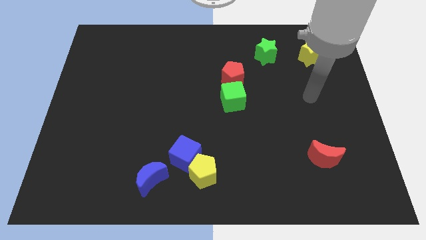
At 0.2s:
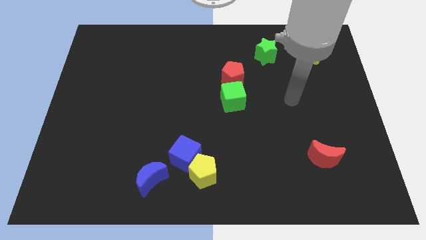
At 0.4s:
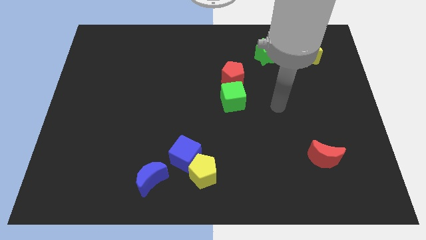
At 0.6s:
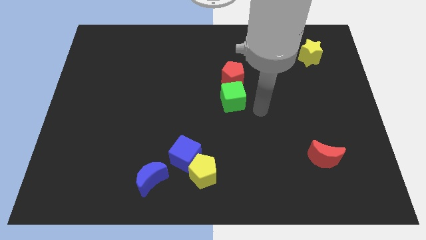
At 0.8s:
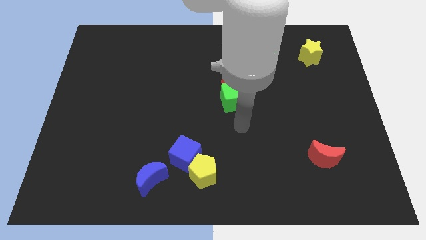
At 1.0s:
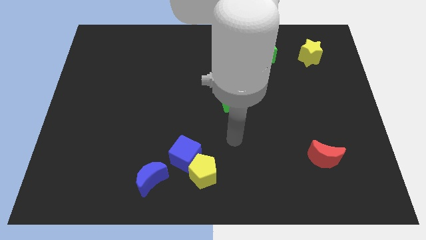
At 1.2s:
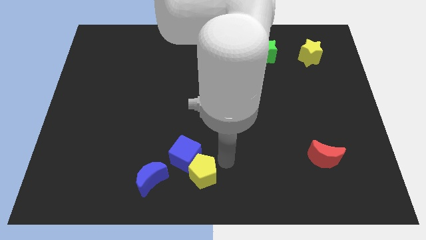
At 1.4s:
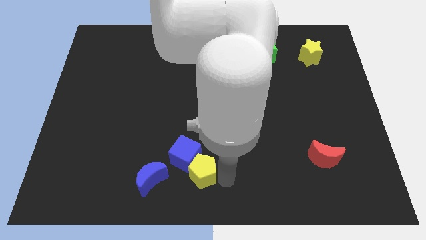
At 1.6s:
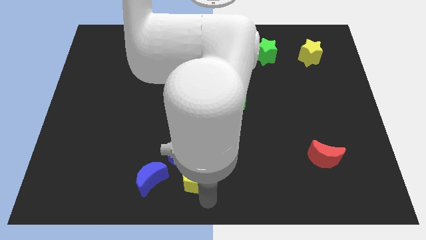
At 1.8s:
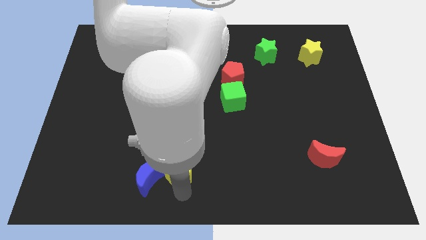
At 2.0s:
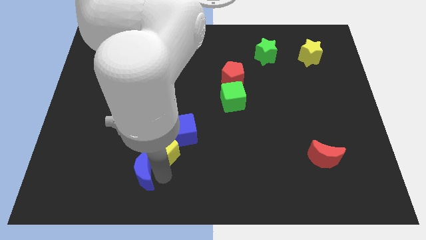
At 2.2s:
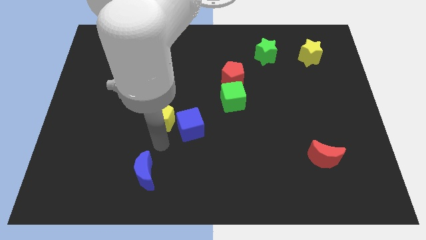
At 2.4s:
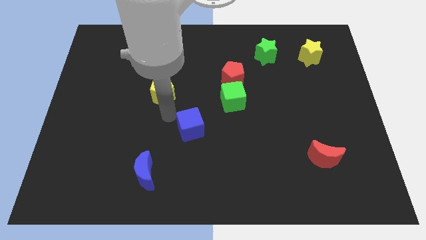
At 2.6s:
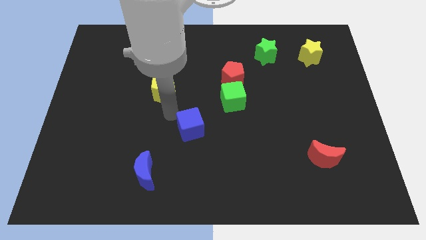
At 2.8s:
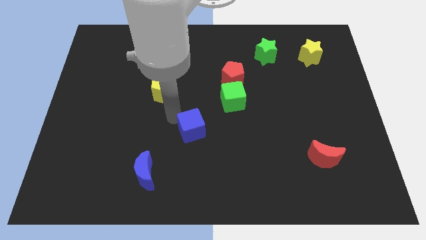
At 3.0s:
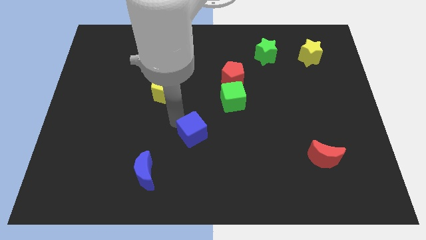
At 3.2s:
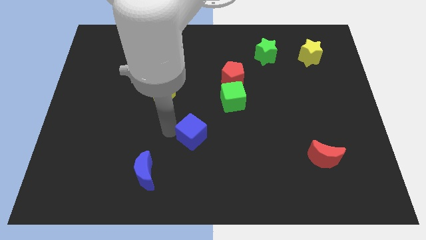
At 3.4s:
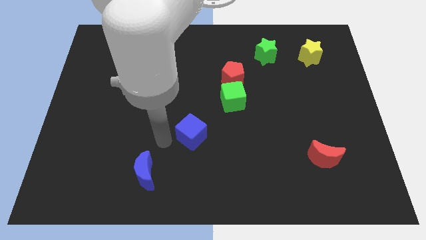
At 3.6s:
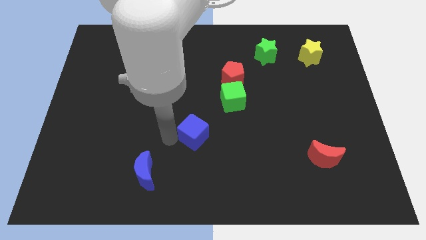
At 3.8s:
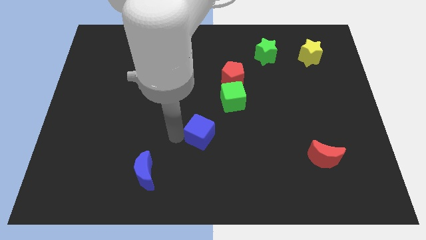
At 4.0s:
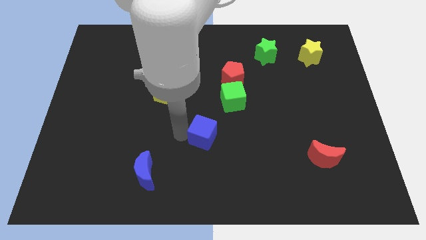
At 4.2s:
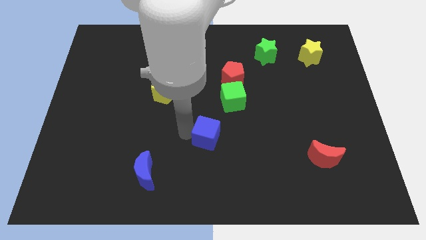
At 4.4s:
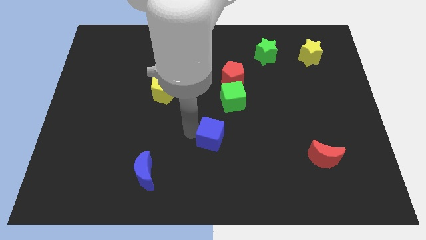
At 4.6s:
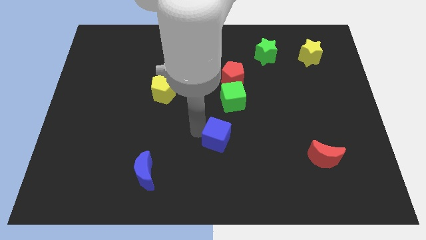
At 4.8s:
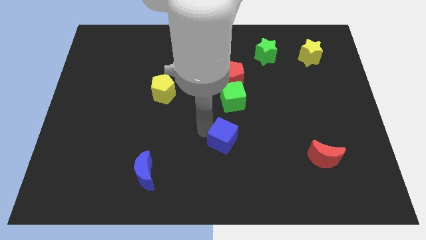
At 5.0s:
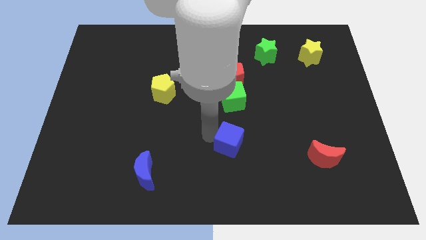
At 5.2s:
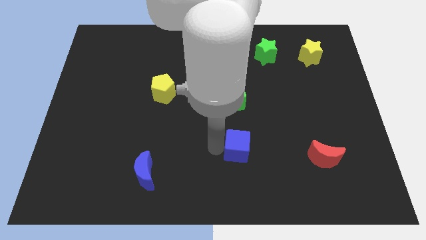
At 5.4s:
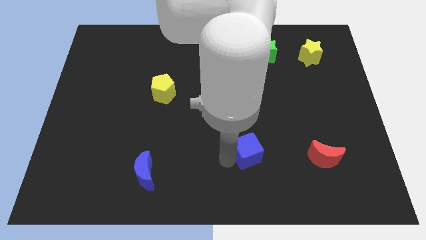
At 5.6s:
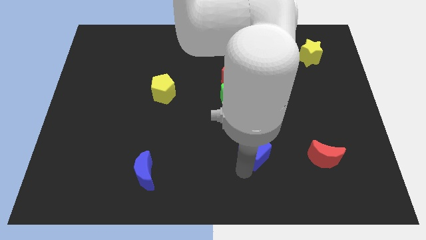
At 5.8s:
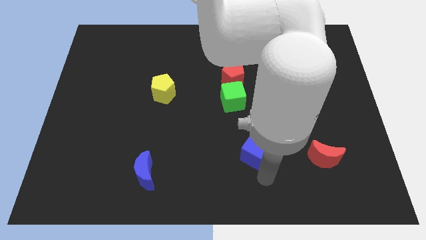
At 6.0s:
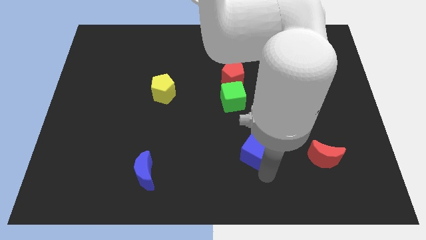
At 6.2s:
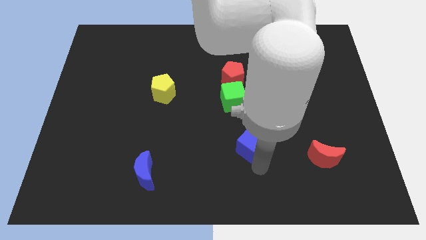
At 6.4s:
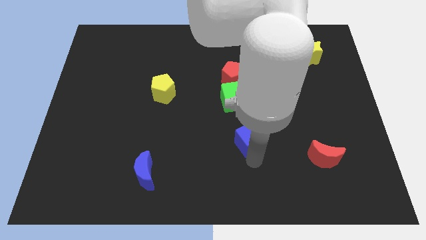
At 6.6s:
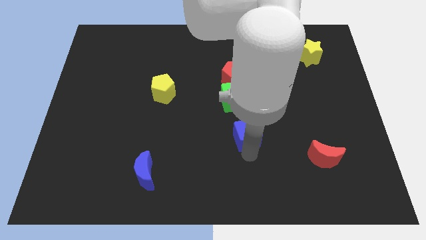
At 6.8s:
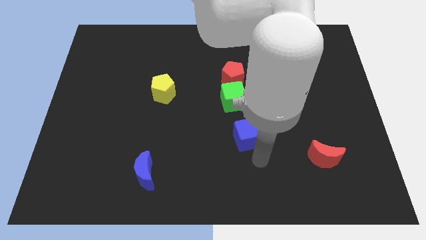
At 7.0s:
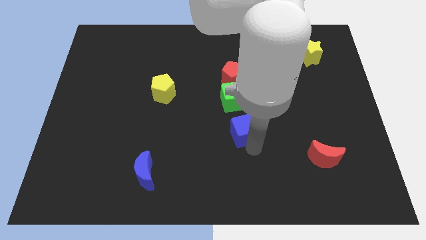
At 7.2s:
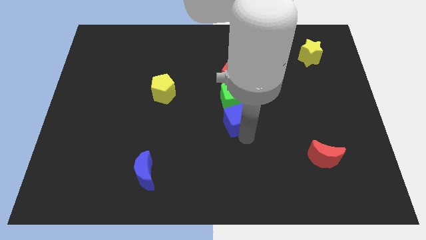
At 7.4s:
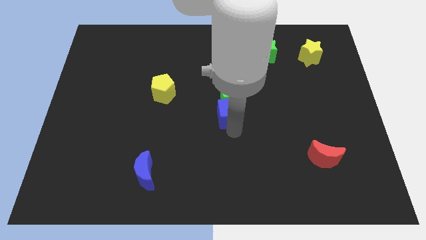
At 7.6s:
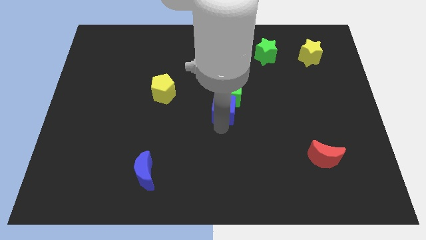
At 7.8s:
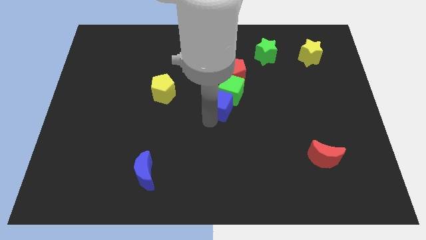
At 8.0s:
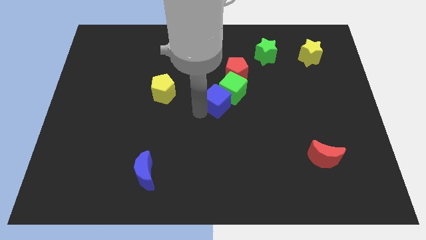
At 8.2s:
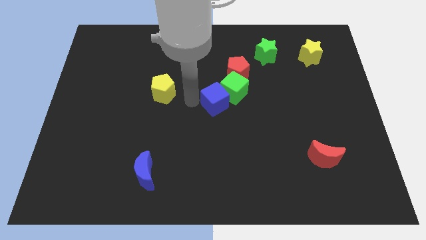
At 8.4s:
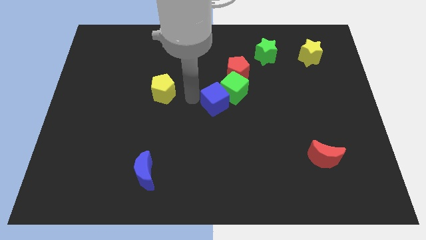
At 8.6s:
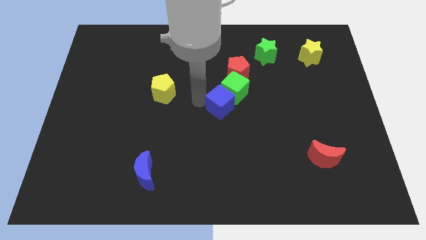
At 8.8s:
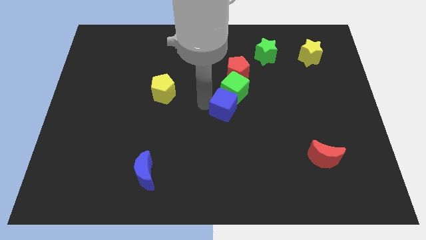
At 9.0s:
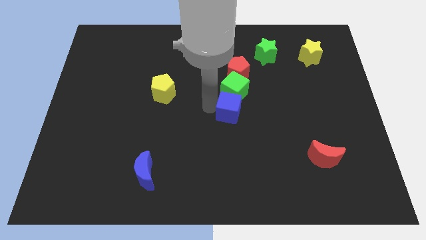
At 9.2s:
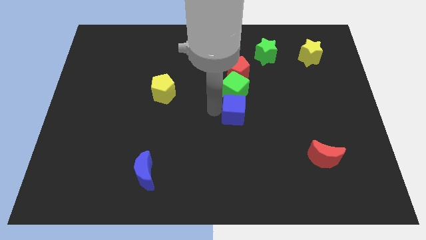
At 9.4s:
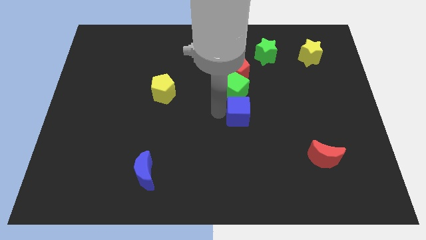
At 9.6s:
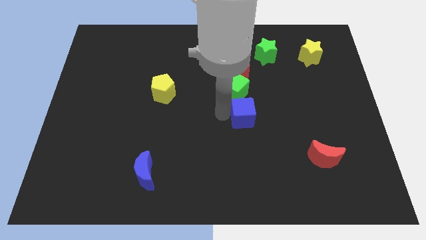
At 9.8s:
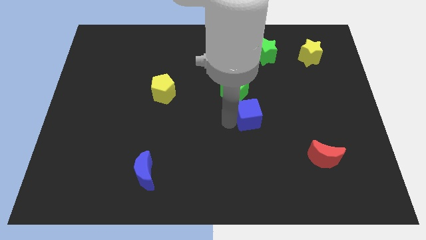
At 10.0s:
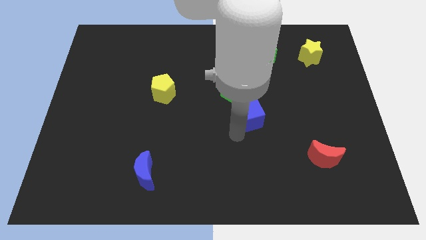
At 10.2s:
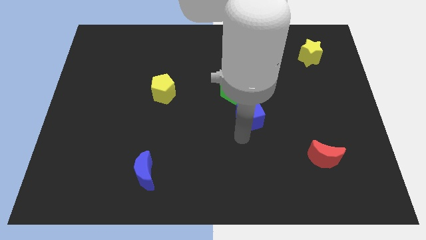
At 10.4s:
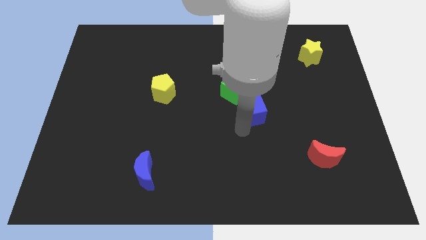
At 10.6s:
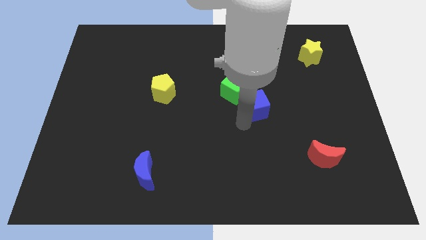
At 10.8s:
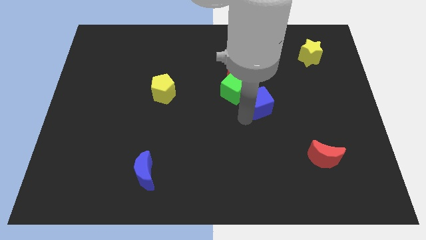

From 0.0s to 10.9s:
slide the blue cube to the bottom right of the red pentagon
